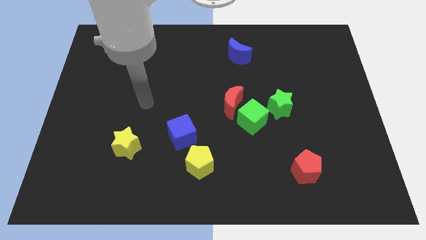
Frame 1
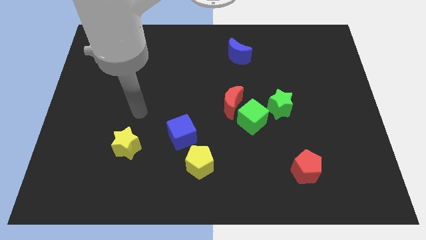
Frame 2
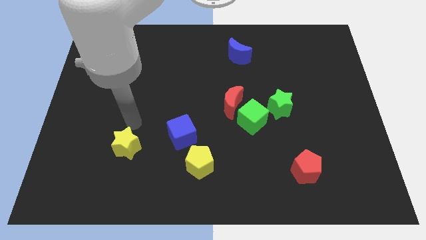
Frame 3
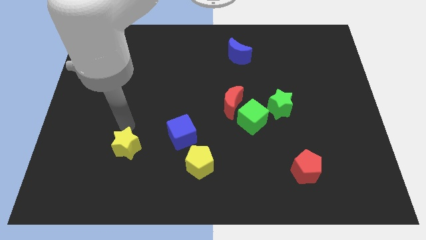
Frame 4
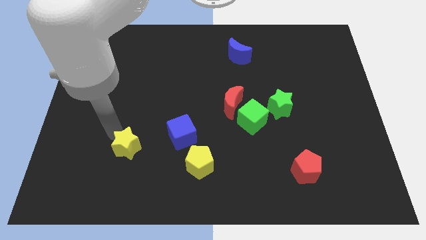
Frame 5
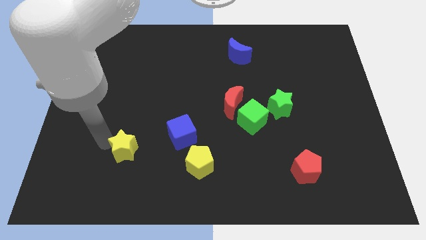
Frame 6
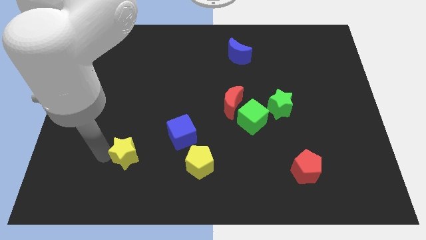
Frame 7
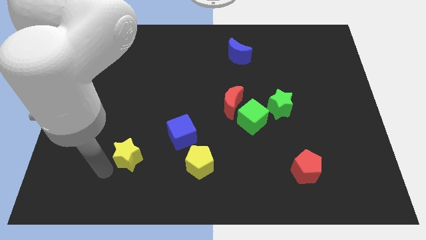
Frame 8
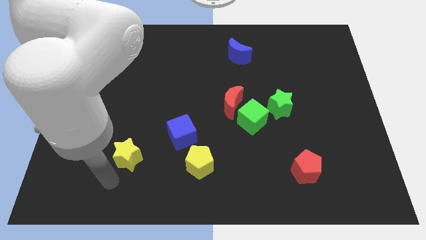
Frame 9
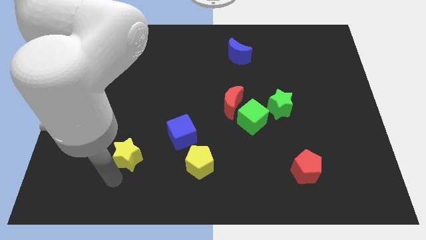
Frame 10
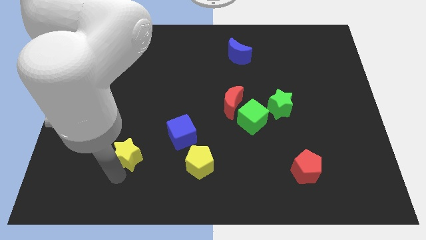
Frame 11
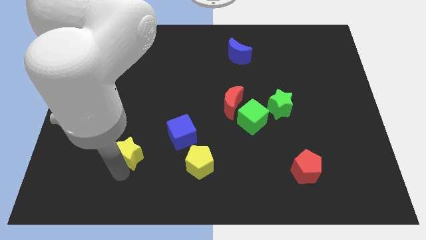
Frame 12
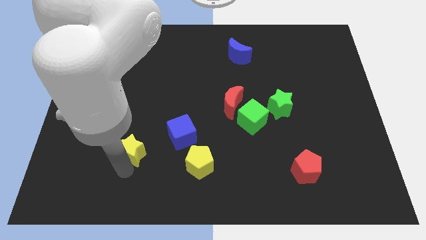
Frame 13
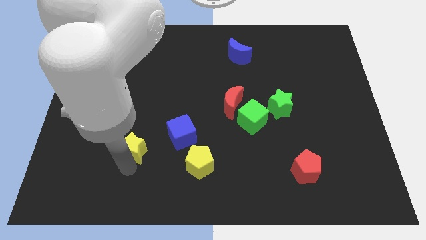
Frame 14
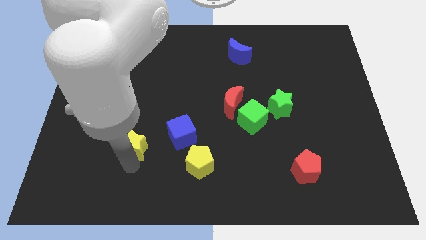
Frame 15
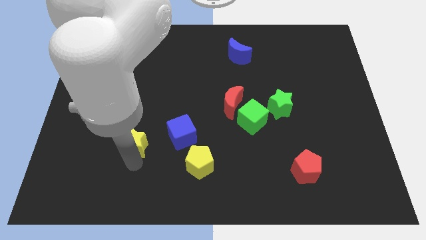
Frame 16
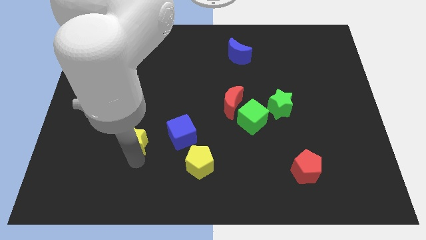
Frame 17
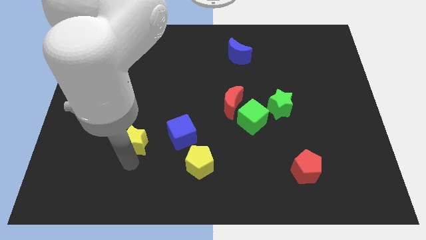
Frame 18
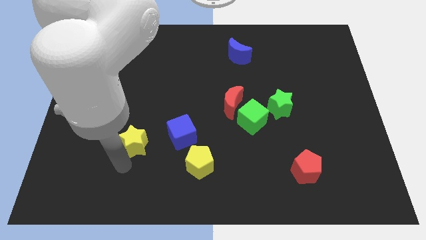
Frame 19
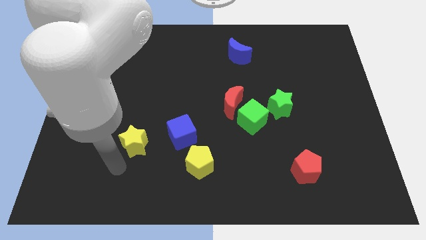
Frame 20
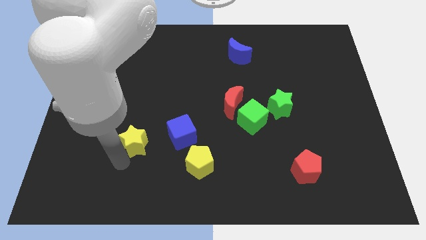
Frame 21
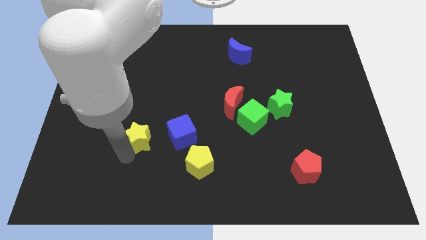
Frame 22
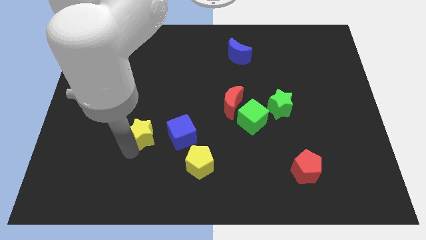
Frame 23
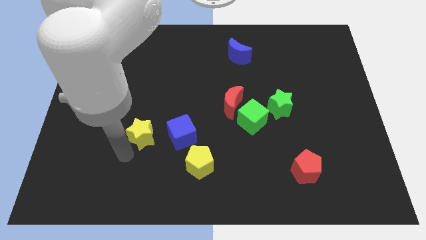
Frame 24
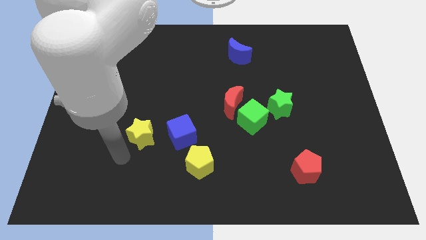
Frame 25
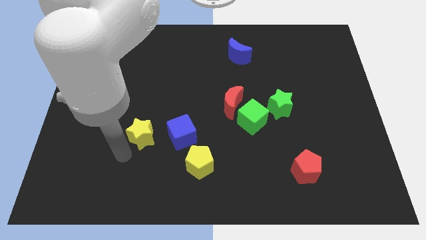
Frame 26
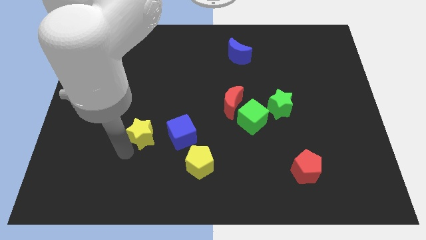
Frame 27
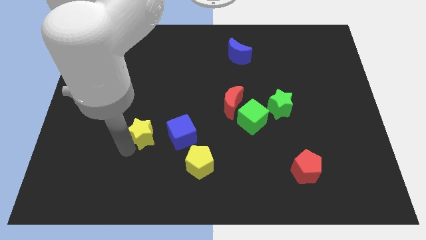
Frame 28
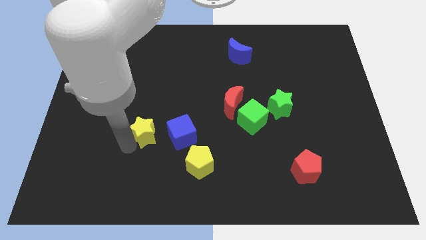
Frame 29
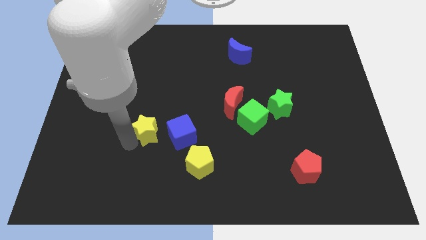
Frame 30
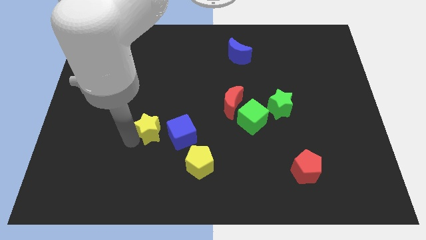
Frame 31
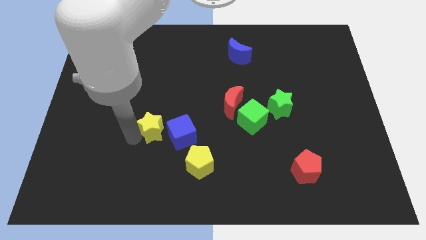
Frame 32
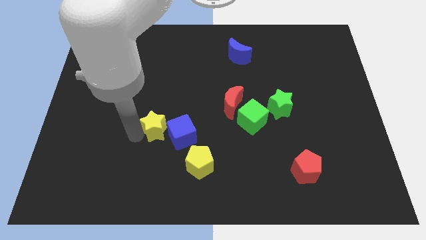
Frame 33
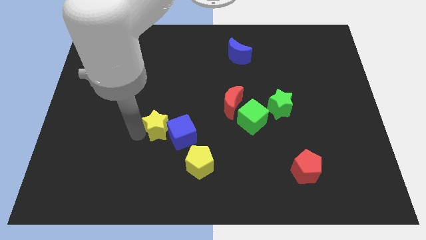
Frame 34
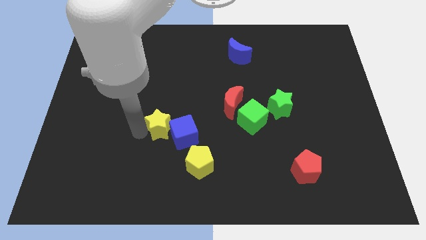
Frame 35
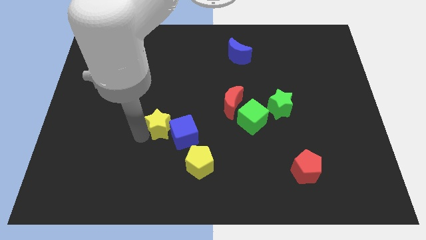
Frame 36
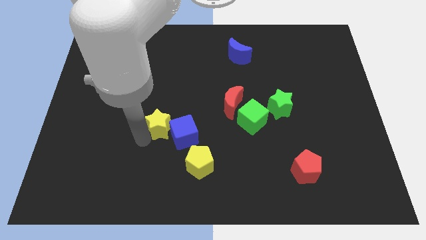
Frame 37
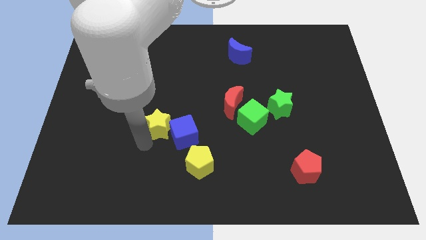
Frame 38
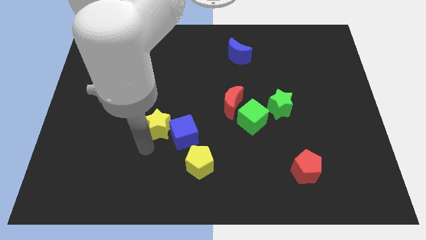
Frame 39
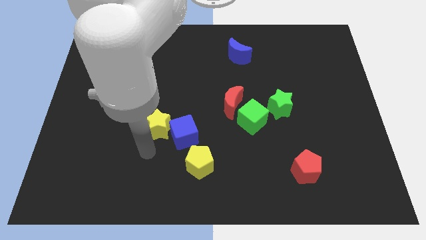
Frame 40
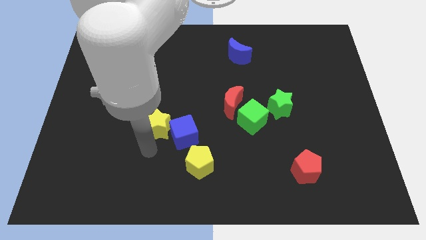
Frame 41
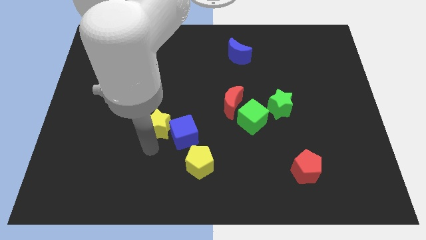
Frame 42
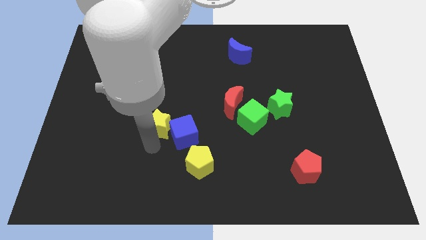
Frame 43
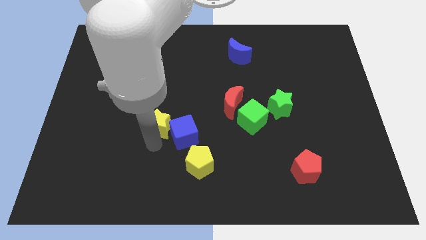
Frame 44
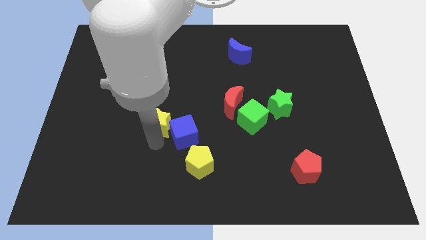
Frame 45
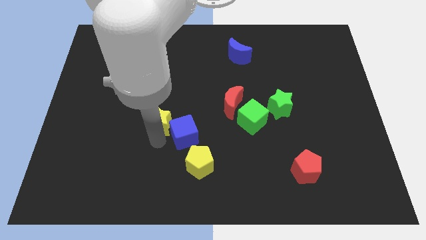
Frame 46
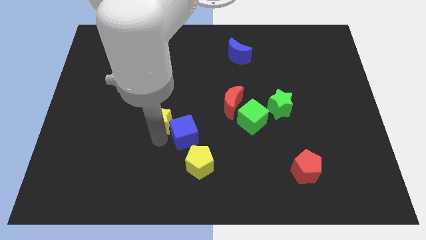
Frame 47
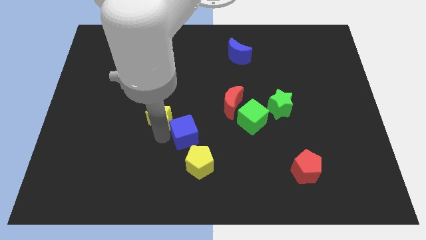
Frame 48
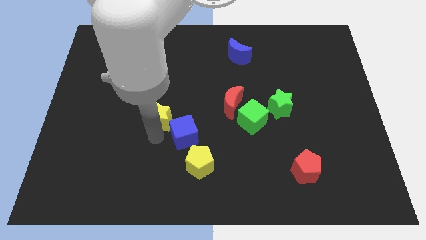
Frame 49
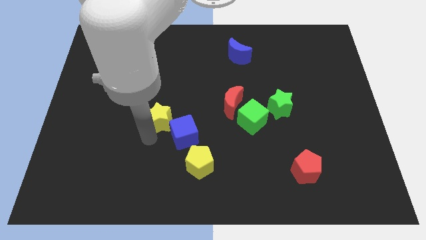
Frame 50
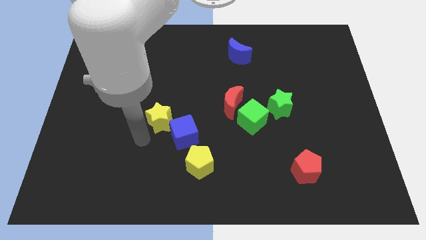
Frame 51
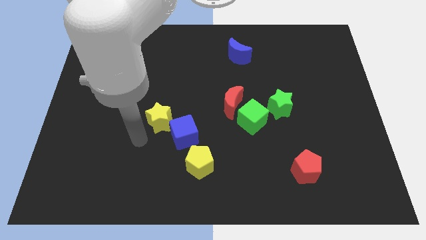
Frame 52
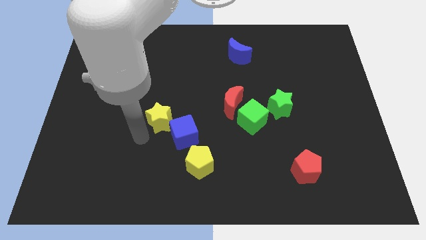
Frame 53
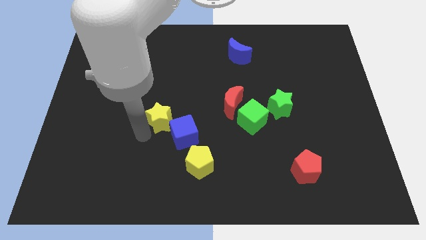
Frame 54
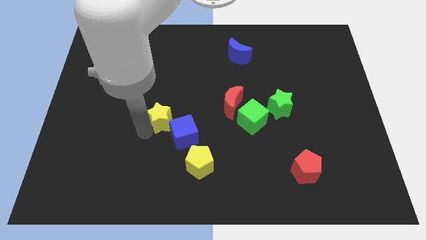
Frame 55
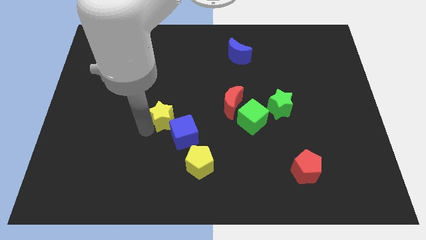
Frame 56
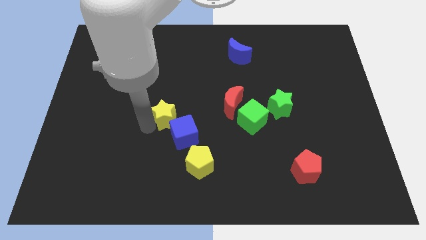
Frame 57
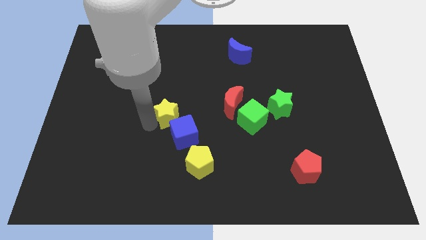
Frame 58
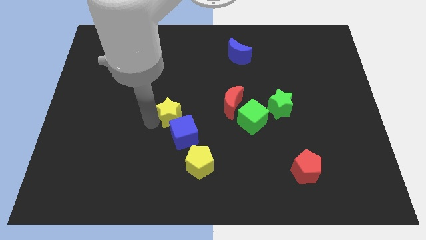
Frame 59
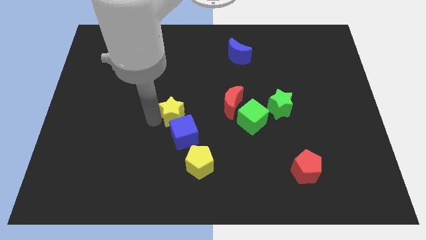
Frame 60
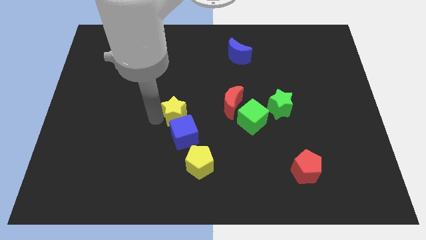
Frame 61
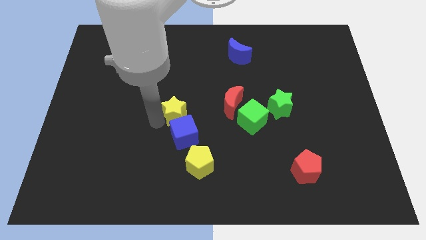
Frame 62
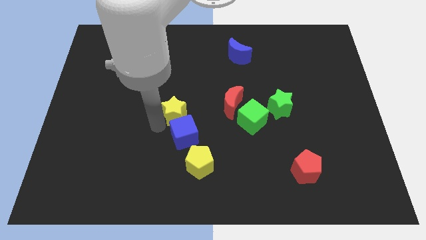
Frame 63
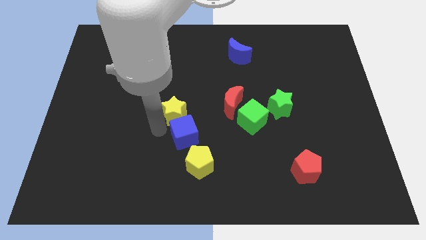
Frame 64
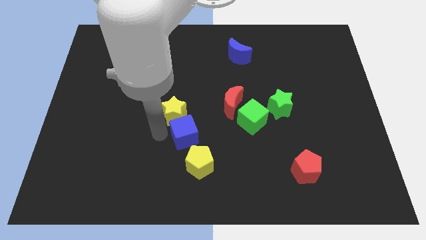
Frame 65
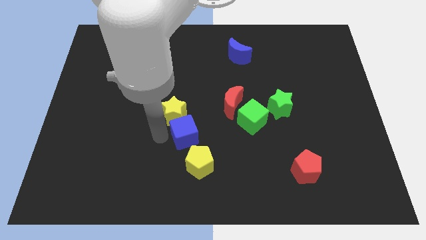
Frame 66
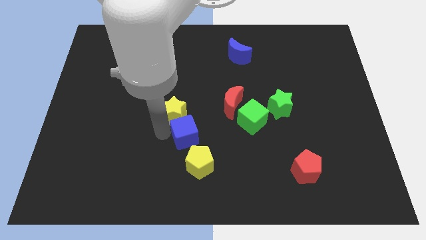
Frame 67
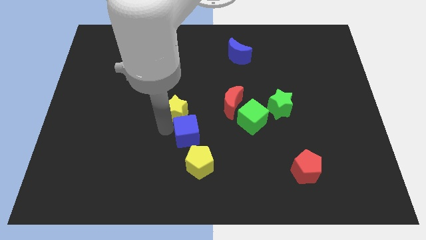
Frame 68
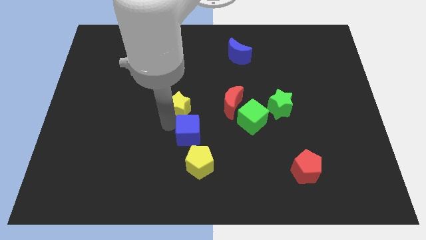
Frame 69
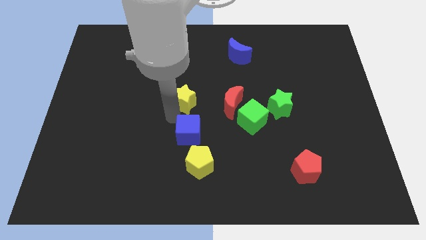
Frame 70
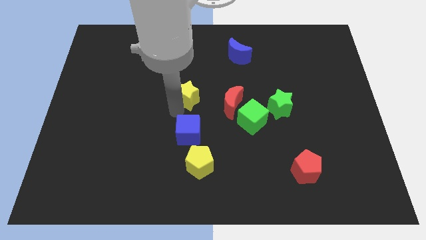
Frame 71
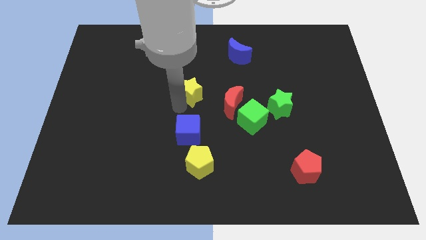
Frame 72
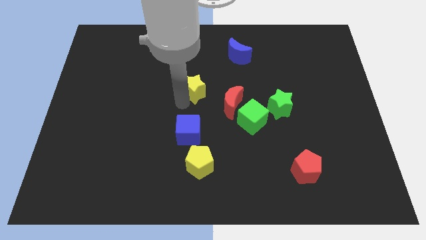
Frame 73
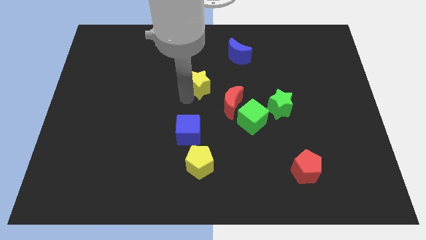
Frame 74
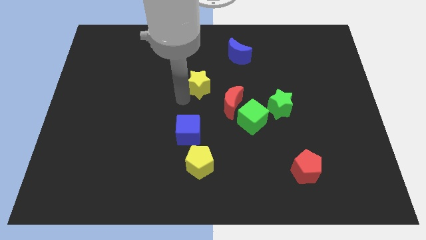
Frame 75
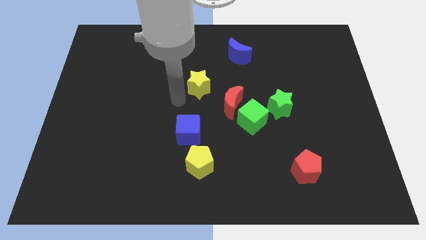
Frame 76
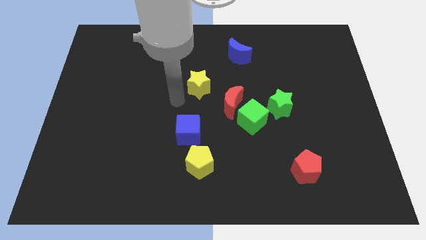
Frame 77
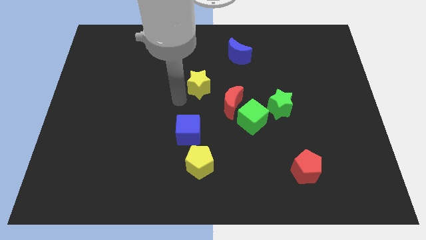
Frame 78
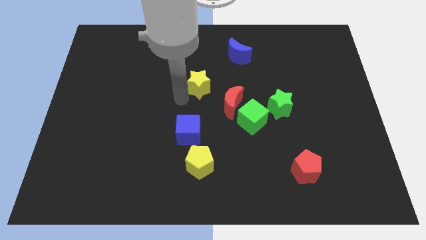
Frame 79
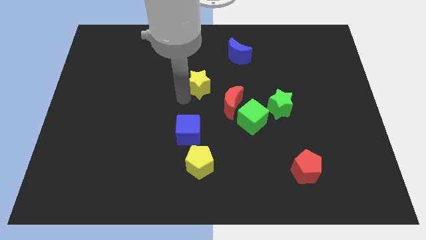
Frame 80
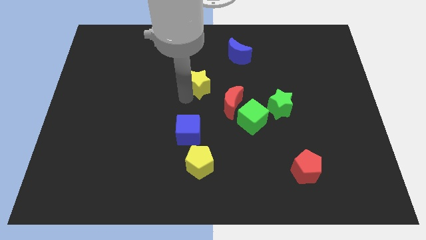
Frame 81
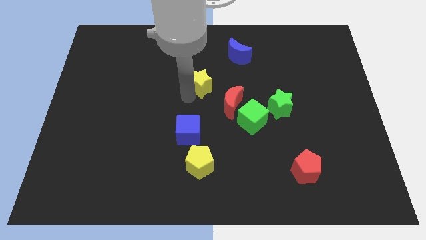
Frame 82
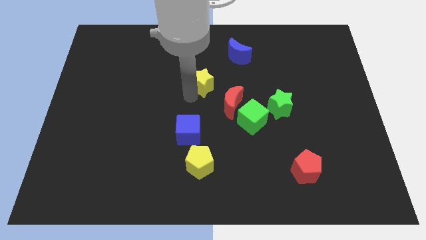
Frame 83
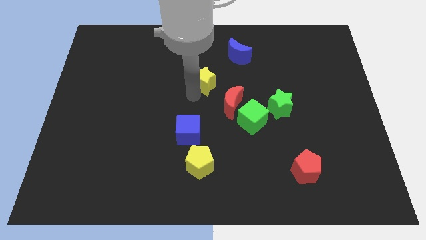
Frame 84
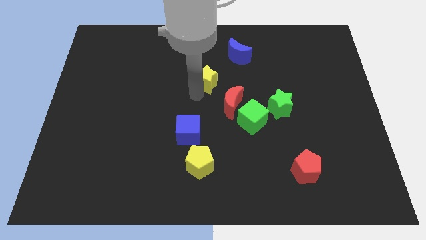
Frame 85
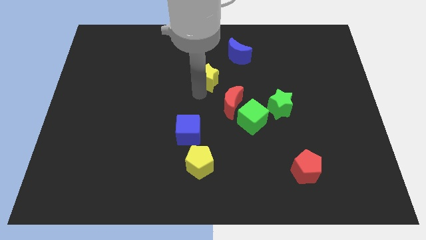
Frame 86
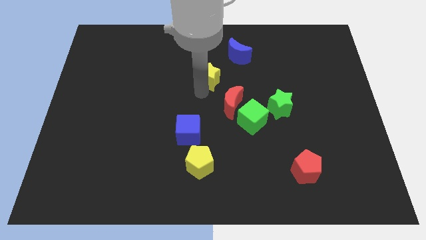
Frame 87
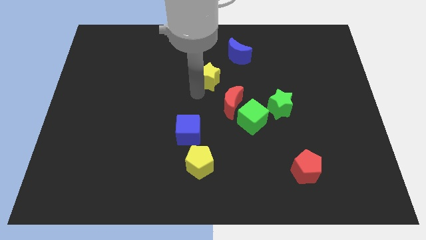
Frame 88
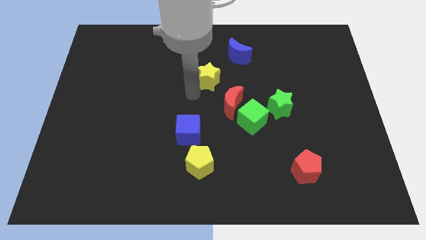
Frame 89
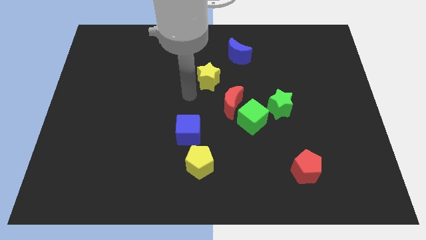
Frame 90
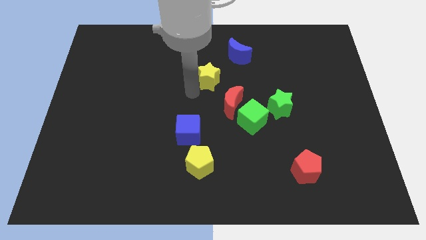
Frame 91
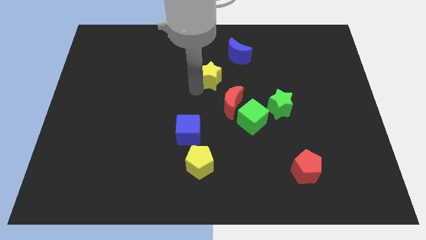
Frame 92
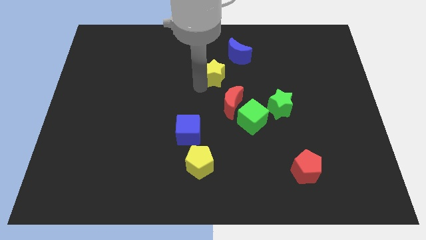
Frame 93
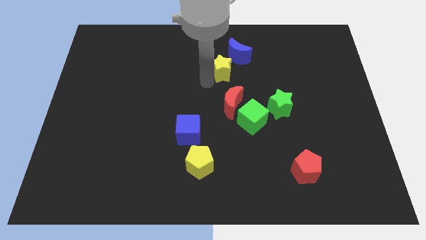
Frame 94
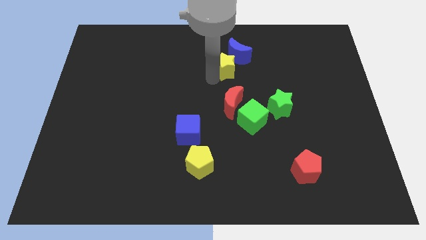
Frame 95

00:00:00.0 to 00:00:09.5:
push the yellow star next to the blue moon
